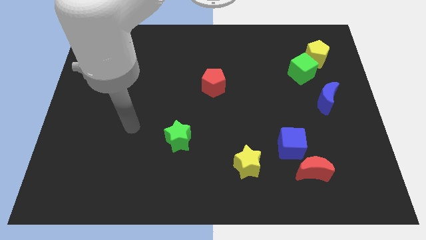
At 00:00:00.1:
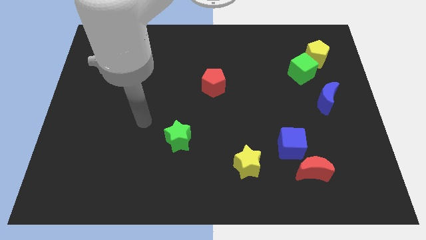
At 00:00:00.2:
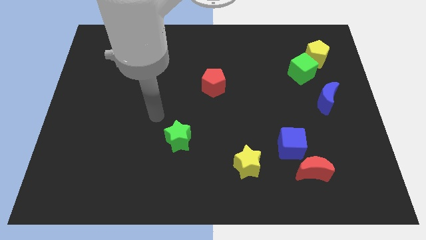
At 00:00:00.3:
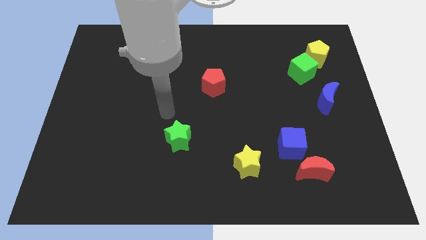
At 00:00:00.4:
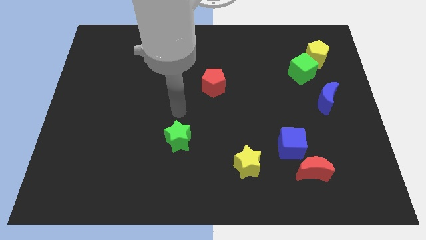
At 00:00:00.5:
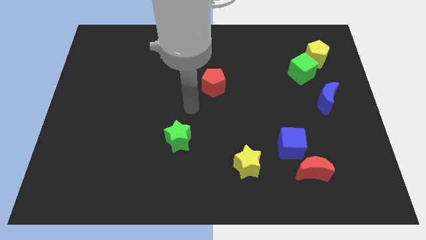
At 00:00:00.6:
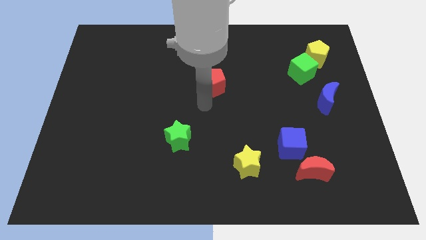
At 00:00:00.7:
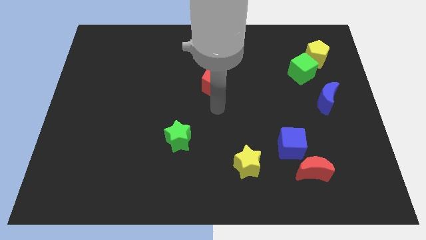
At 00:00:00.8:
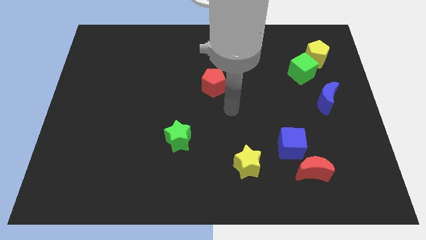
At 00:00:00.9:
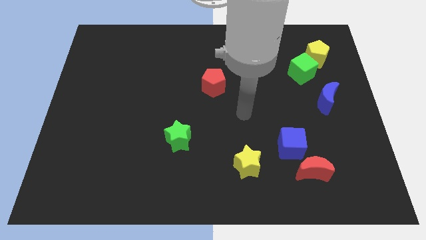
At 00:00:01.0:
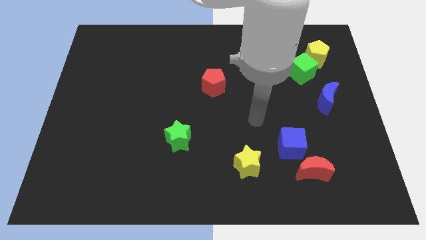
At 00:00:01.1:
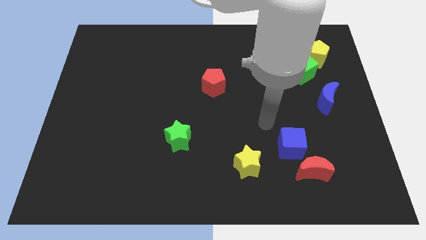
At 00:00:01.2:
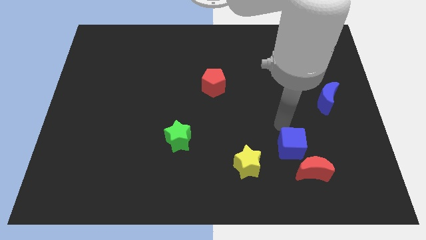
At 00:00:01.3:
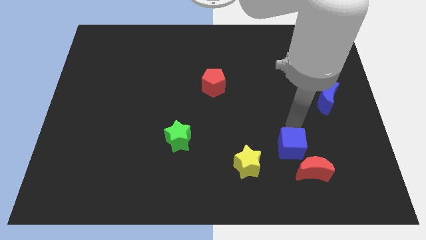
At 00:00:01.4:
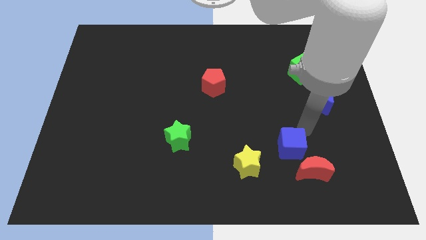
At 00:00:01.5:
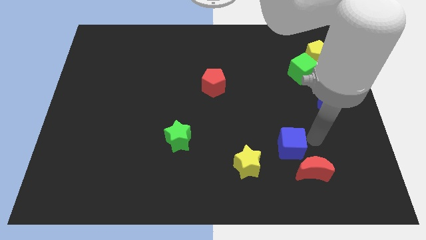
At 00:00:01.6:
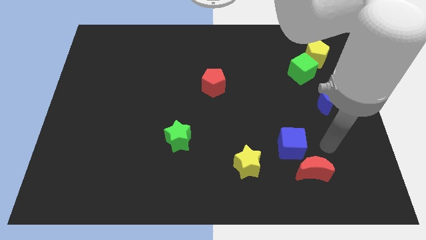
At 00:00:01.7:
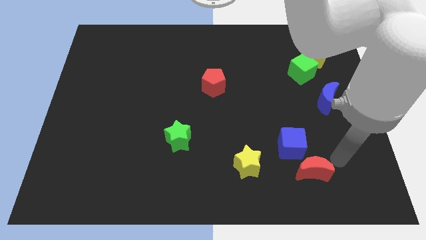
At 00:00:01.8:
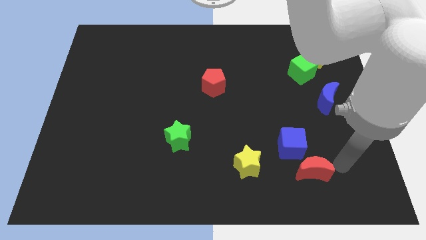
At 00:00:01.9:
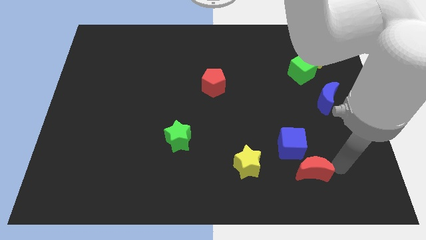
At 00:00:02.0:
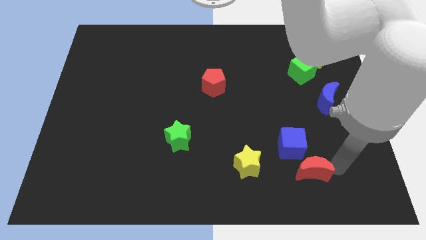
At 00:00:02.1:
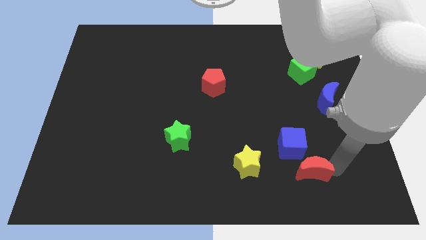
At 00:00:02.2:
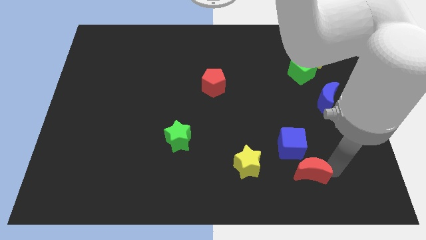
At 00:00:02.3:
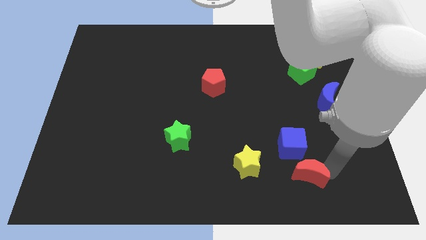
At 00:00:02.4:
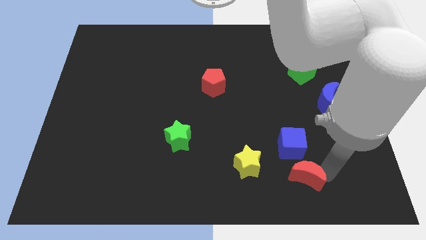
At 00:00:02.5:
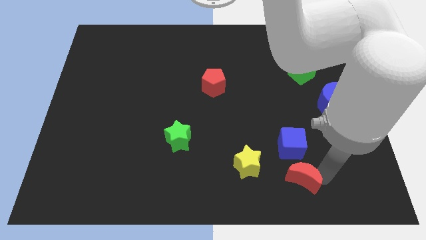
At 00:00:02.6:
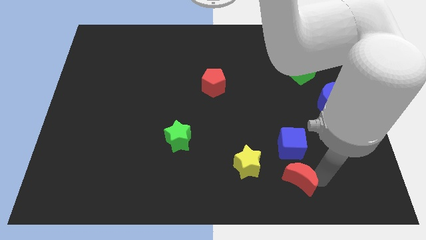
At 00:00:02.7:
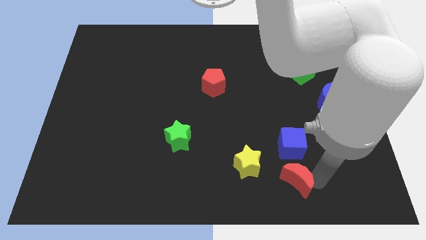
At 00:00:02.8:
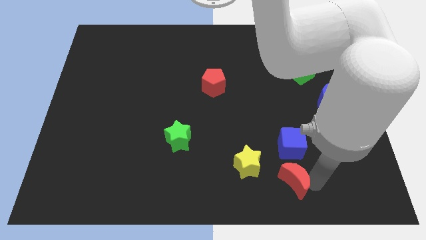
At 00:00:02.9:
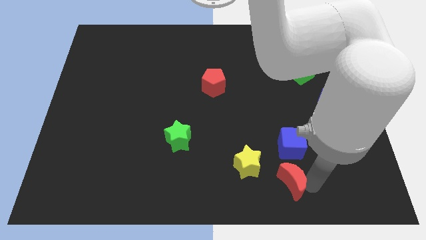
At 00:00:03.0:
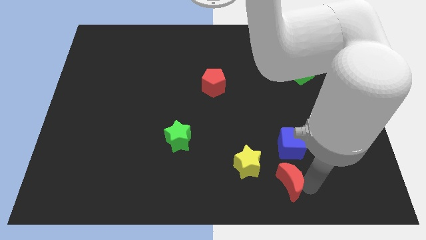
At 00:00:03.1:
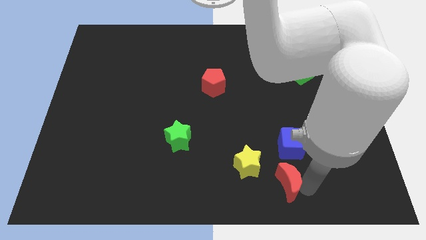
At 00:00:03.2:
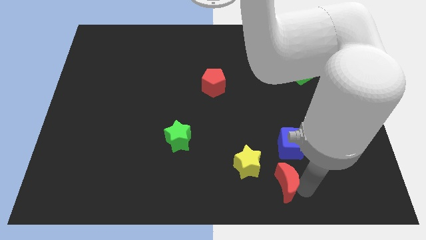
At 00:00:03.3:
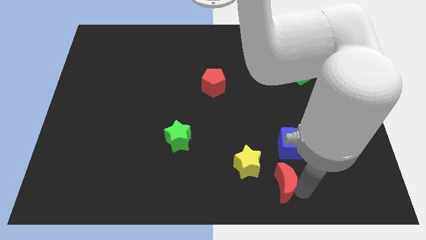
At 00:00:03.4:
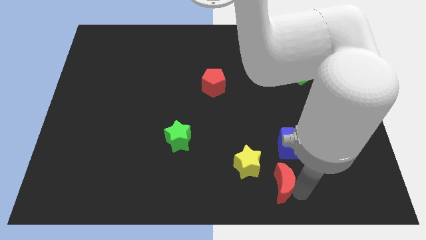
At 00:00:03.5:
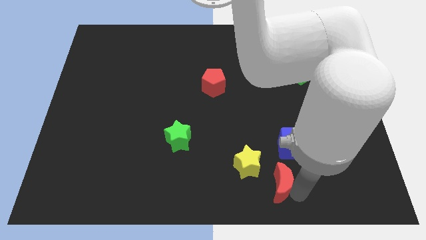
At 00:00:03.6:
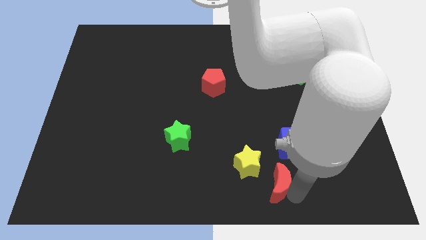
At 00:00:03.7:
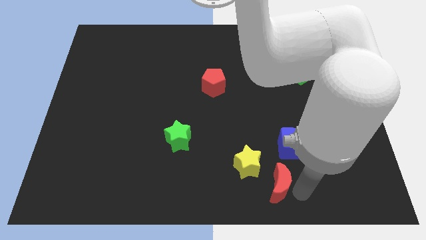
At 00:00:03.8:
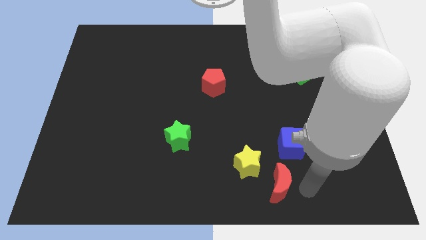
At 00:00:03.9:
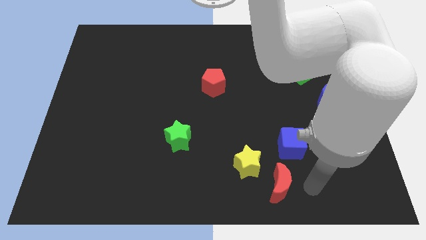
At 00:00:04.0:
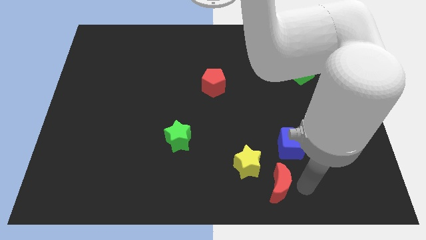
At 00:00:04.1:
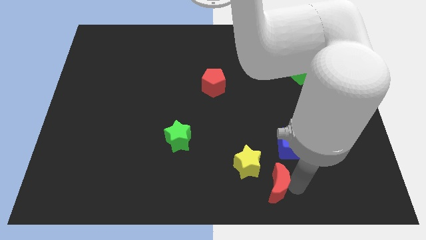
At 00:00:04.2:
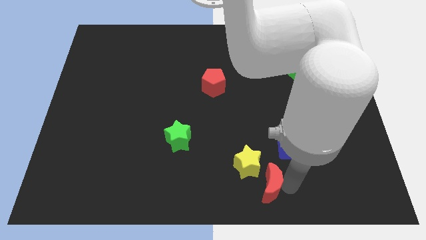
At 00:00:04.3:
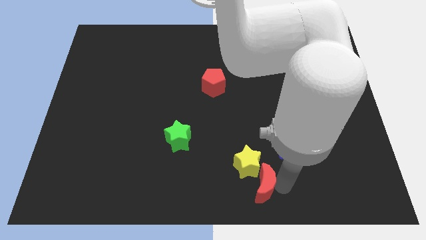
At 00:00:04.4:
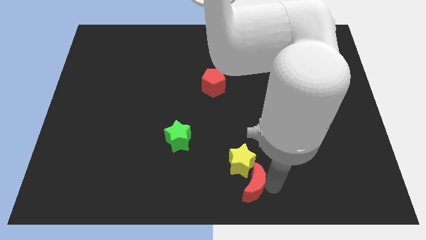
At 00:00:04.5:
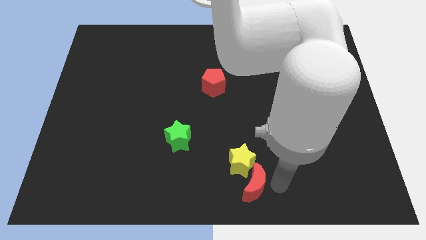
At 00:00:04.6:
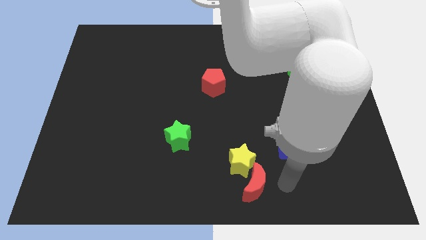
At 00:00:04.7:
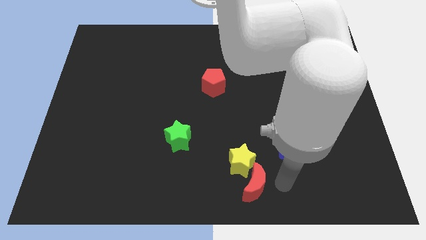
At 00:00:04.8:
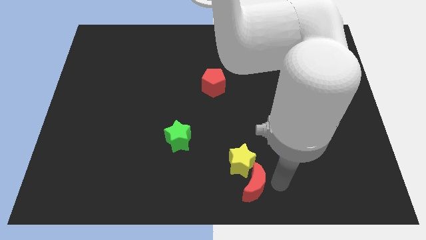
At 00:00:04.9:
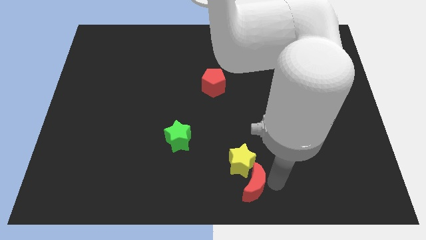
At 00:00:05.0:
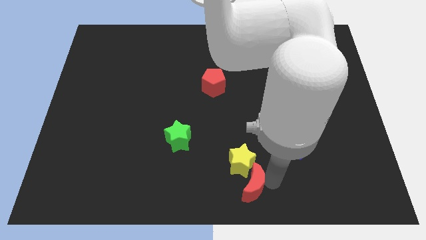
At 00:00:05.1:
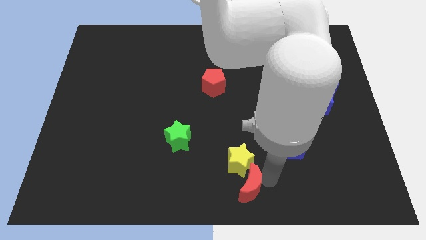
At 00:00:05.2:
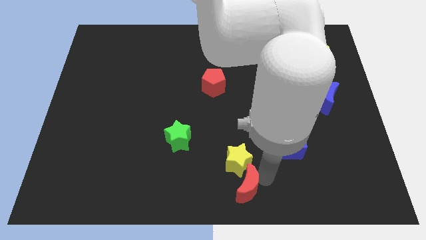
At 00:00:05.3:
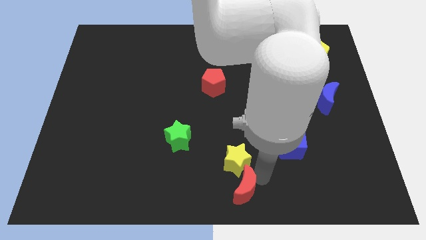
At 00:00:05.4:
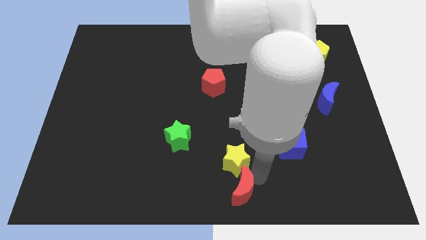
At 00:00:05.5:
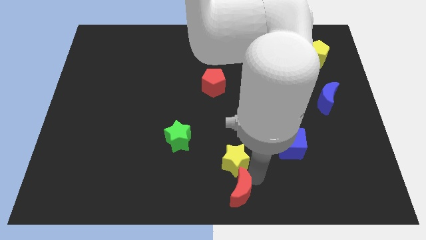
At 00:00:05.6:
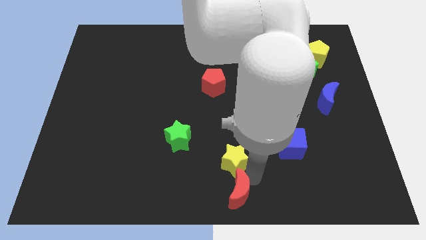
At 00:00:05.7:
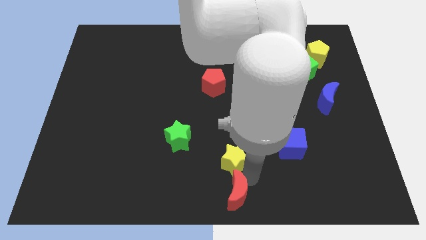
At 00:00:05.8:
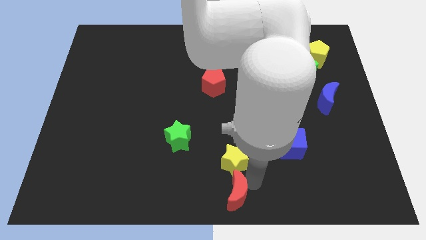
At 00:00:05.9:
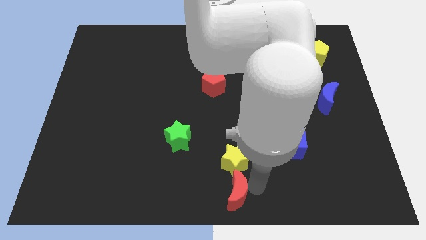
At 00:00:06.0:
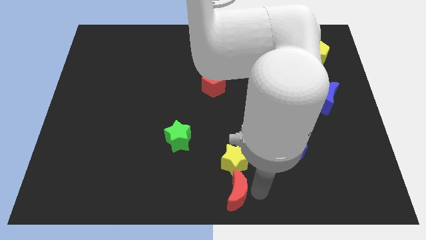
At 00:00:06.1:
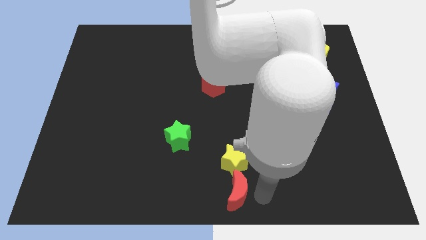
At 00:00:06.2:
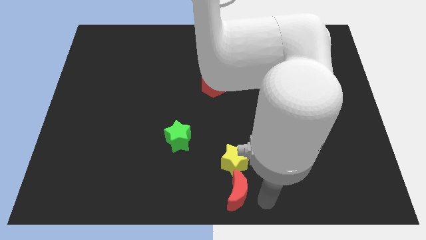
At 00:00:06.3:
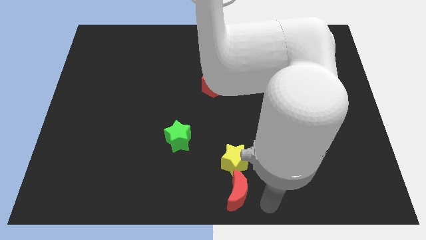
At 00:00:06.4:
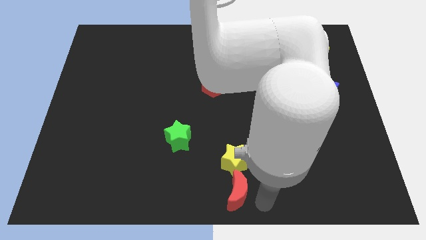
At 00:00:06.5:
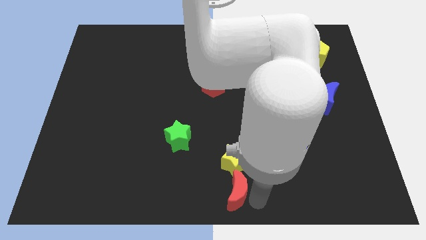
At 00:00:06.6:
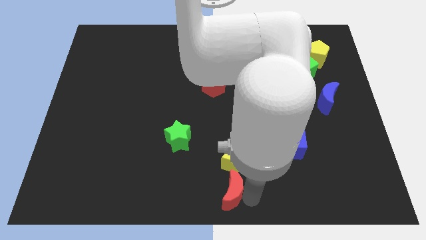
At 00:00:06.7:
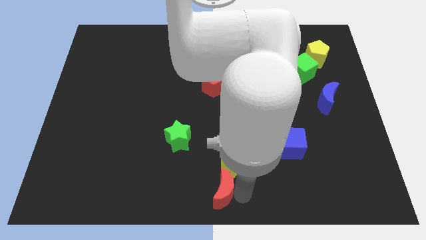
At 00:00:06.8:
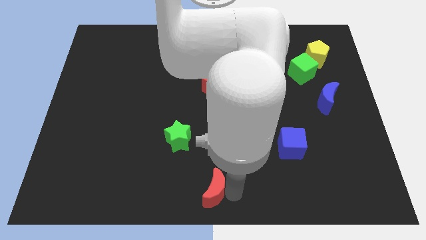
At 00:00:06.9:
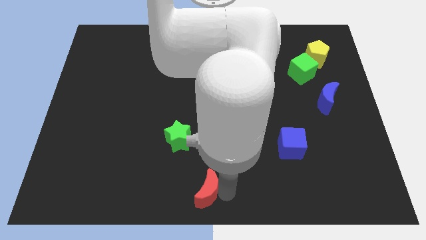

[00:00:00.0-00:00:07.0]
slide the red moon left

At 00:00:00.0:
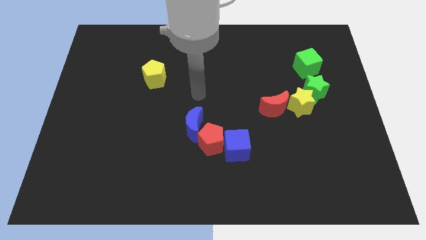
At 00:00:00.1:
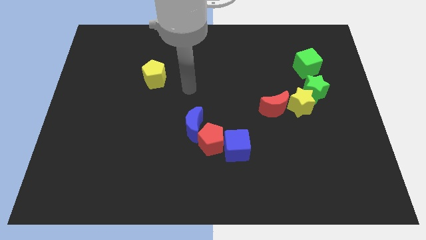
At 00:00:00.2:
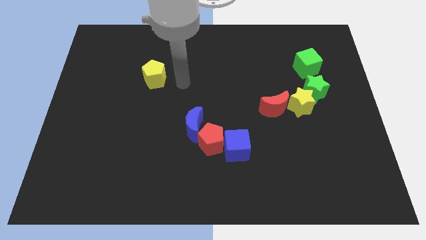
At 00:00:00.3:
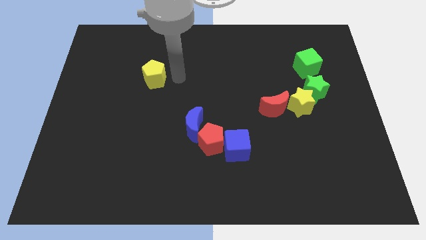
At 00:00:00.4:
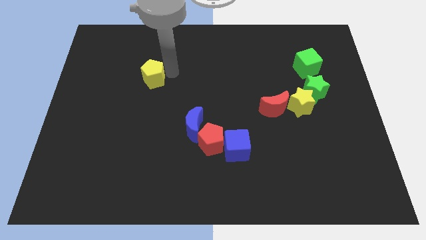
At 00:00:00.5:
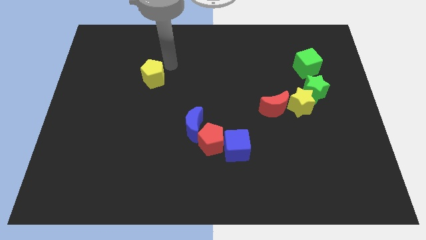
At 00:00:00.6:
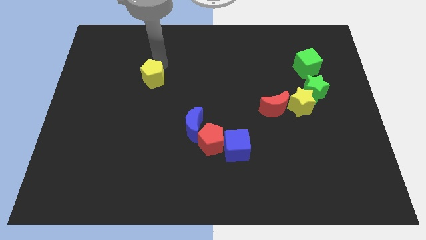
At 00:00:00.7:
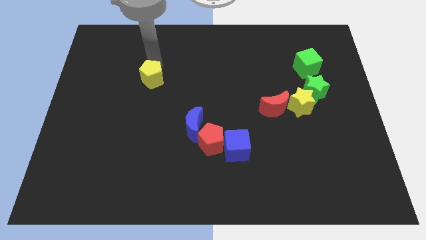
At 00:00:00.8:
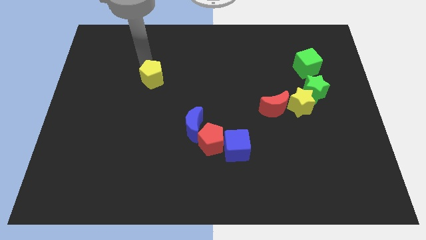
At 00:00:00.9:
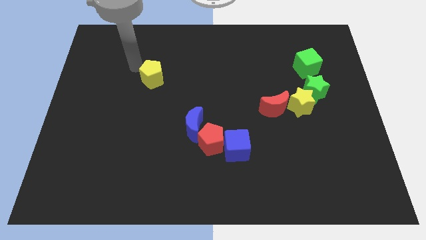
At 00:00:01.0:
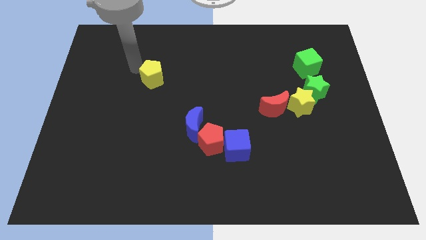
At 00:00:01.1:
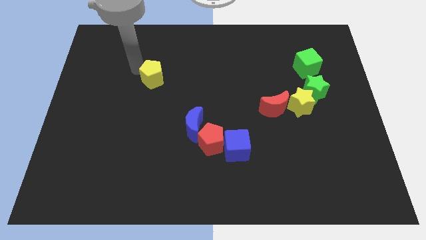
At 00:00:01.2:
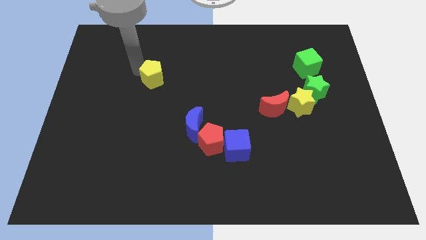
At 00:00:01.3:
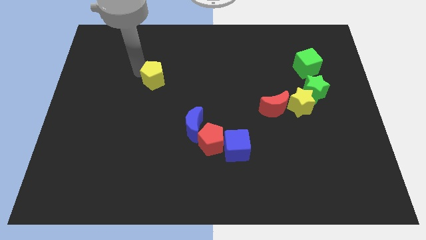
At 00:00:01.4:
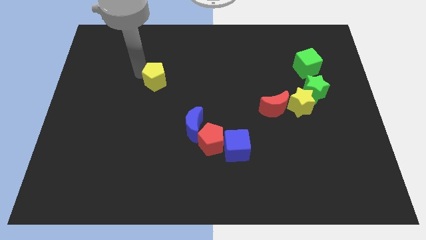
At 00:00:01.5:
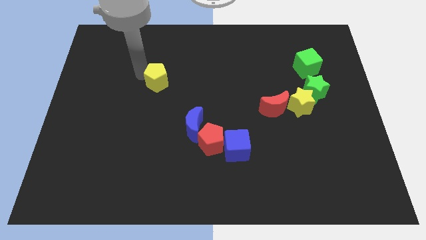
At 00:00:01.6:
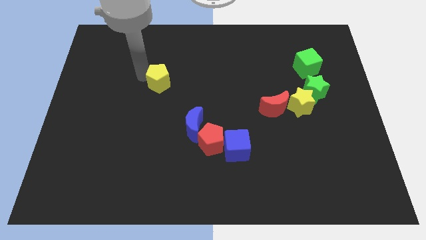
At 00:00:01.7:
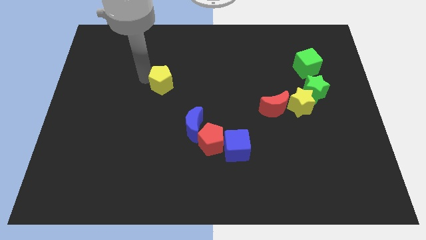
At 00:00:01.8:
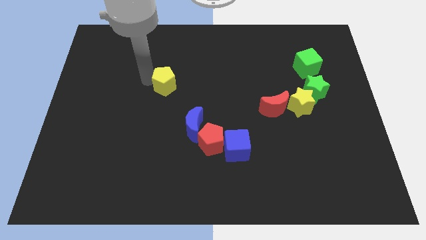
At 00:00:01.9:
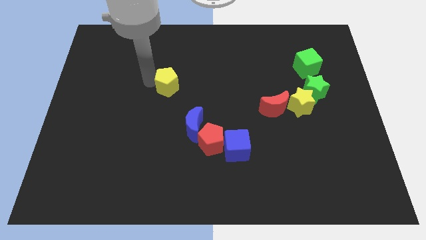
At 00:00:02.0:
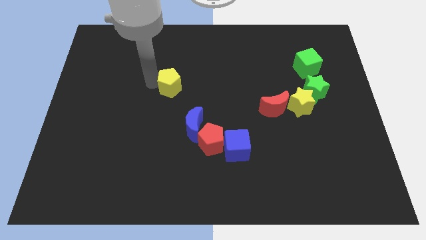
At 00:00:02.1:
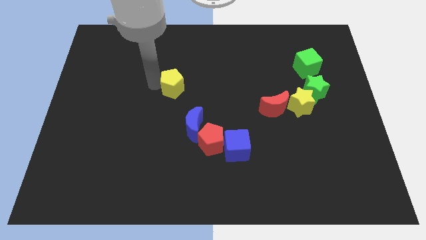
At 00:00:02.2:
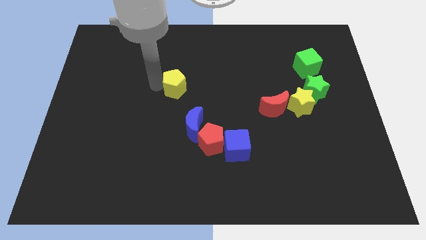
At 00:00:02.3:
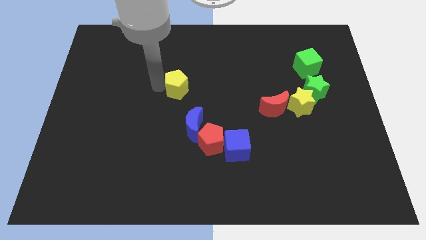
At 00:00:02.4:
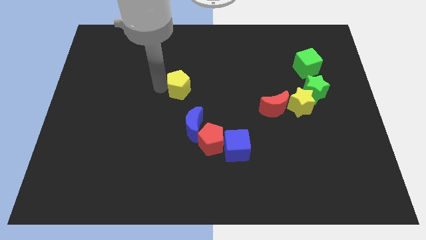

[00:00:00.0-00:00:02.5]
slightly slide the yellow pentagon downwards and then to the right
